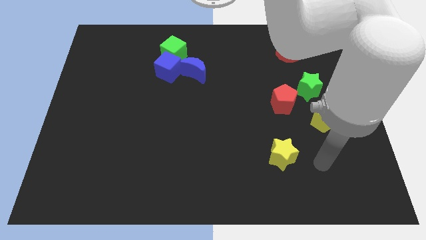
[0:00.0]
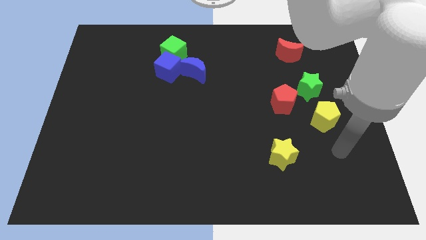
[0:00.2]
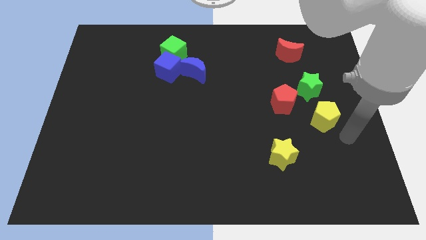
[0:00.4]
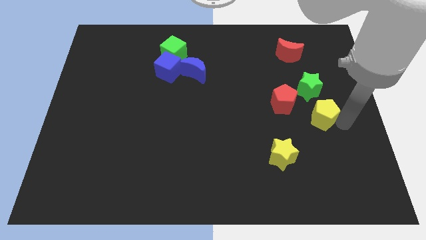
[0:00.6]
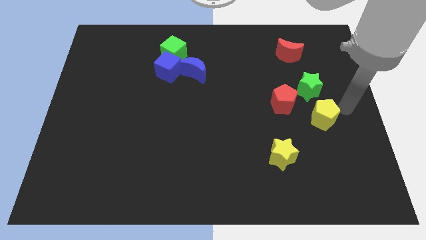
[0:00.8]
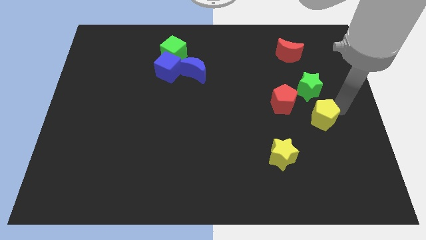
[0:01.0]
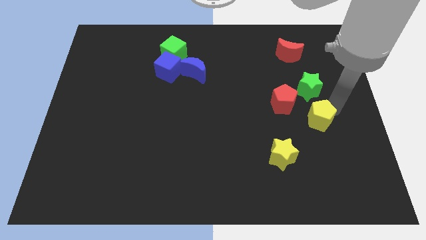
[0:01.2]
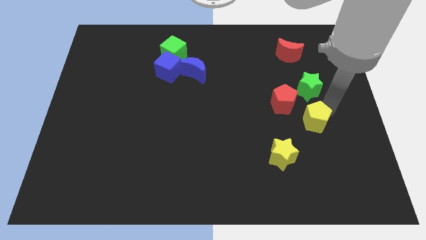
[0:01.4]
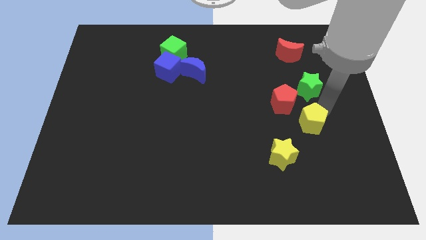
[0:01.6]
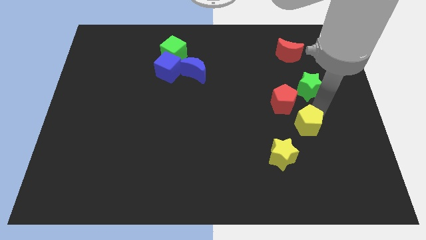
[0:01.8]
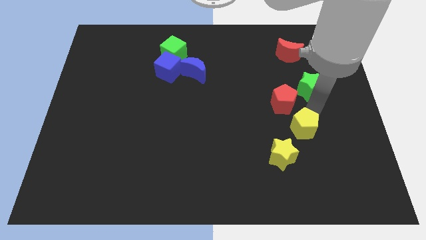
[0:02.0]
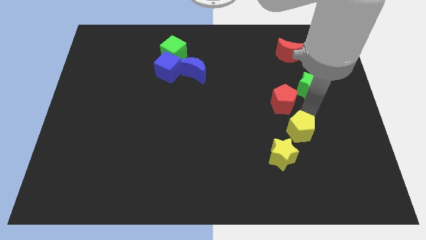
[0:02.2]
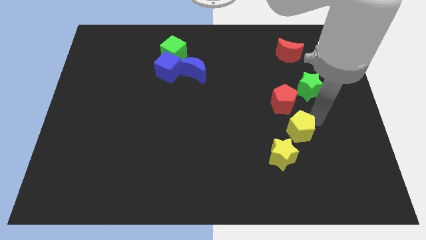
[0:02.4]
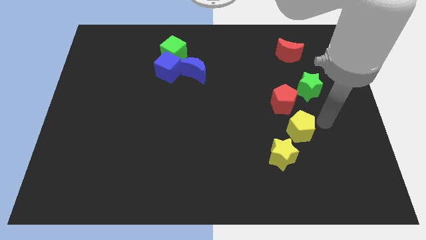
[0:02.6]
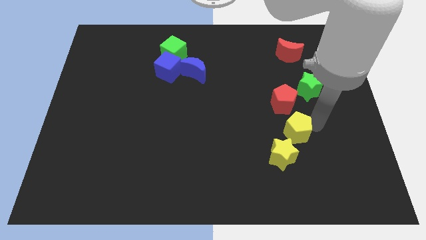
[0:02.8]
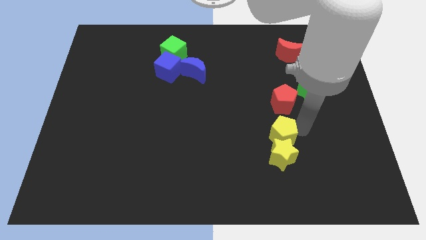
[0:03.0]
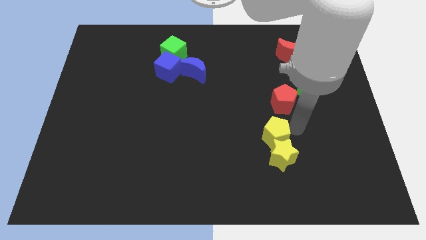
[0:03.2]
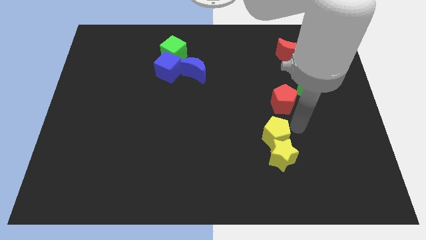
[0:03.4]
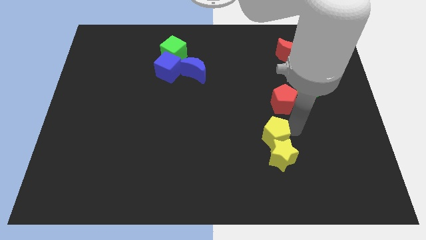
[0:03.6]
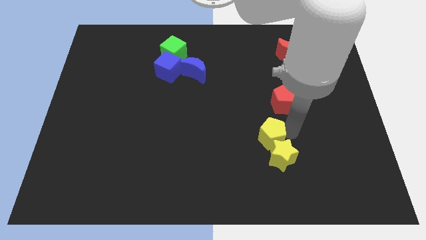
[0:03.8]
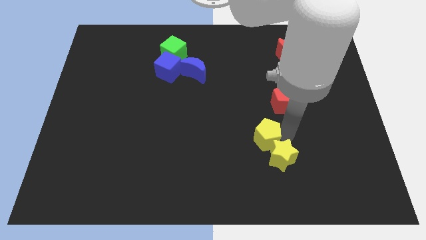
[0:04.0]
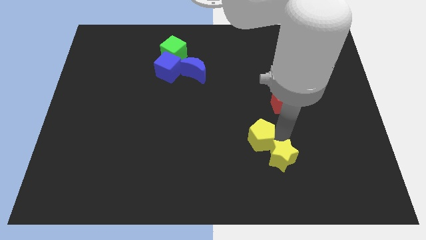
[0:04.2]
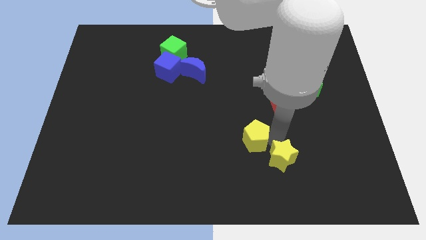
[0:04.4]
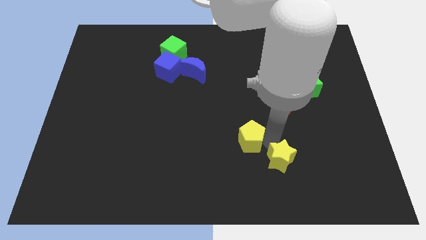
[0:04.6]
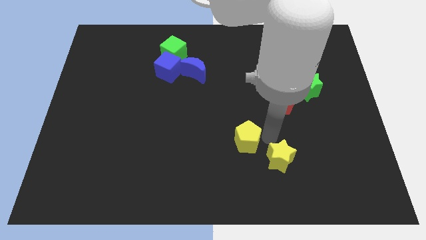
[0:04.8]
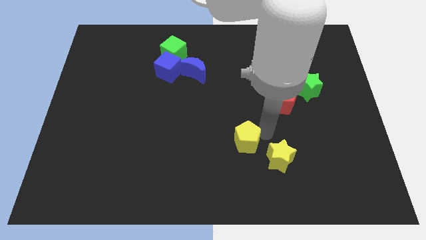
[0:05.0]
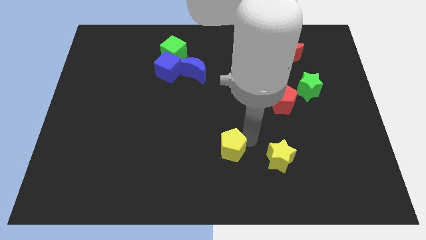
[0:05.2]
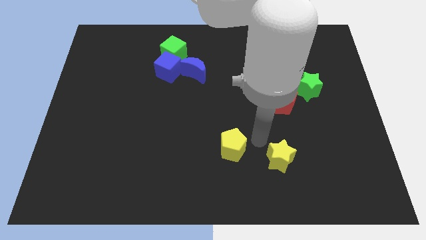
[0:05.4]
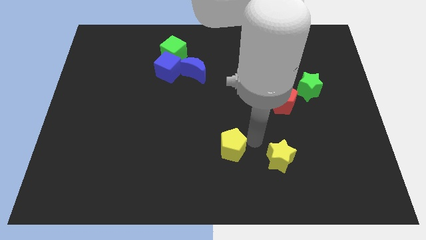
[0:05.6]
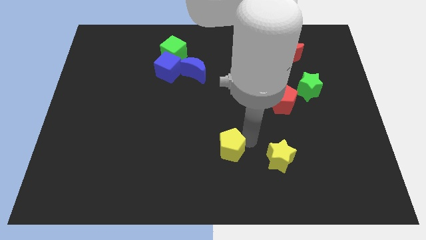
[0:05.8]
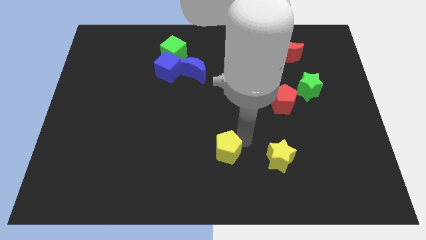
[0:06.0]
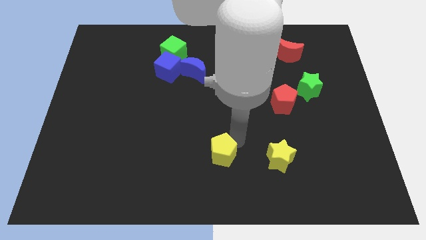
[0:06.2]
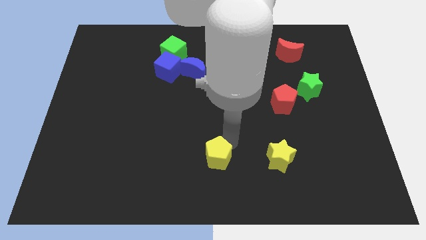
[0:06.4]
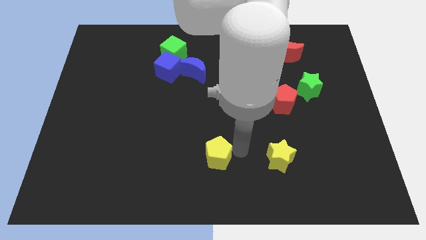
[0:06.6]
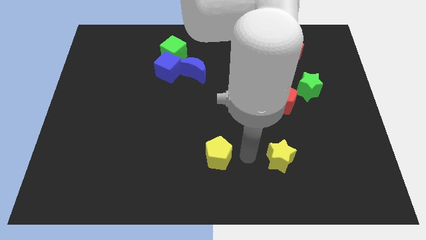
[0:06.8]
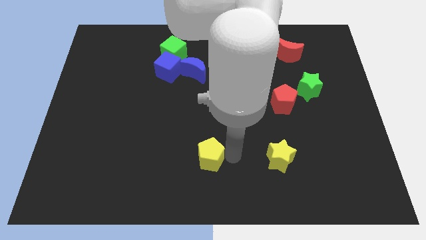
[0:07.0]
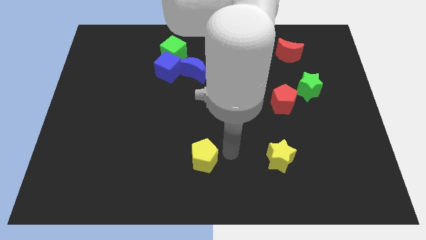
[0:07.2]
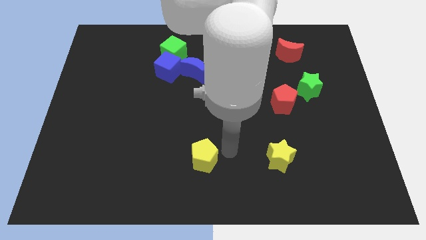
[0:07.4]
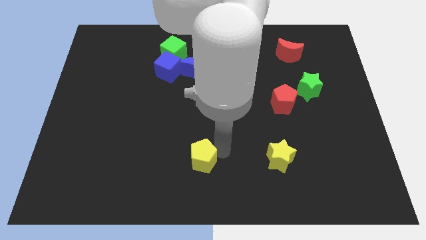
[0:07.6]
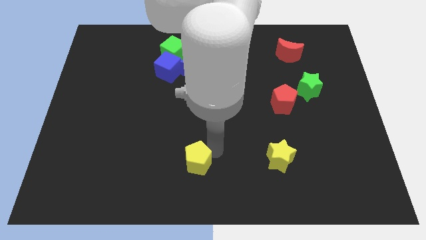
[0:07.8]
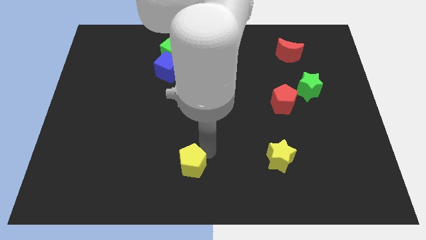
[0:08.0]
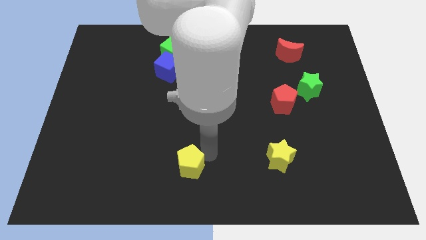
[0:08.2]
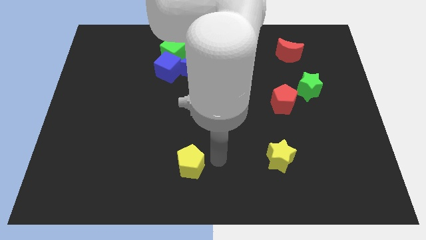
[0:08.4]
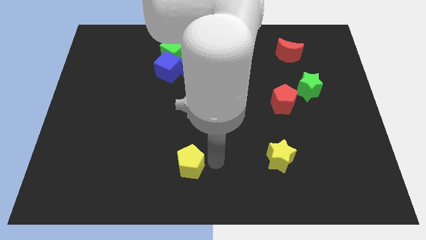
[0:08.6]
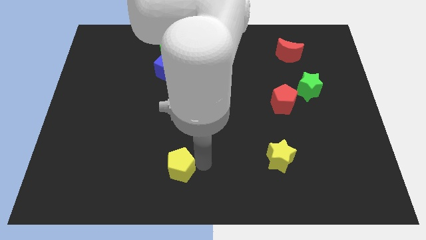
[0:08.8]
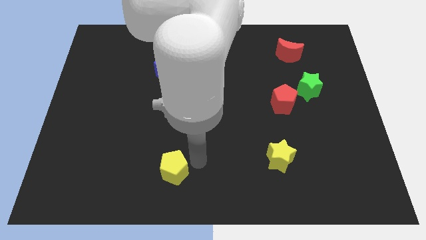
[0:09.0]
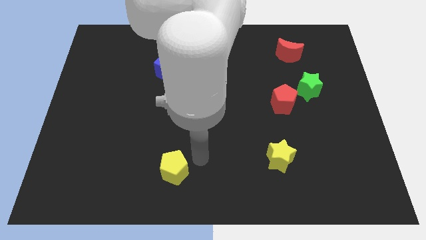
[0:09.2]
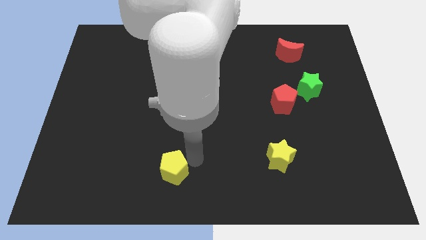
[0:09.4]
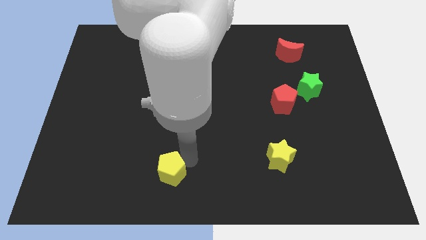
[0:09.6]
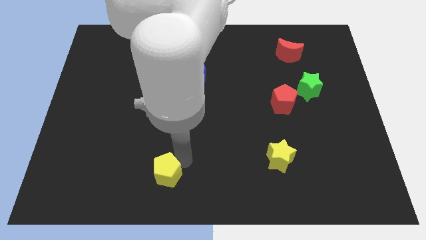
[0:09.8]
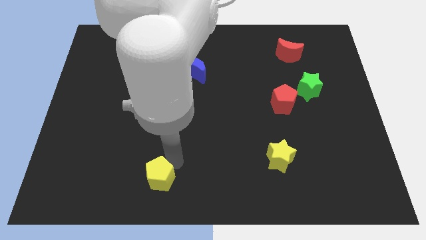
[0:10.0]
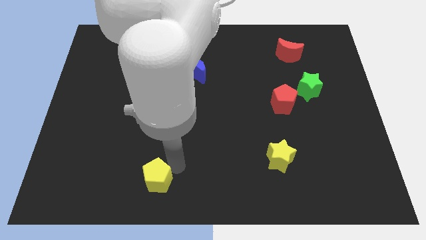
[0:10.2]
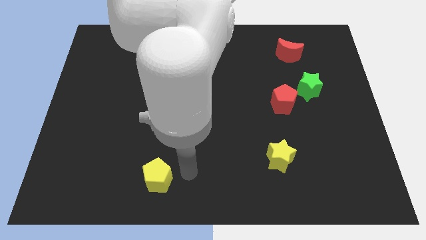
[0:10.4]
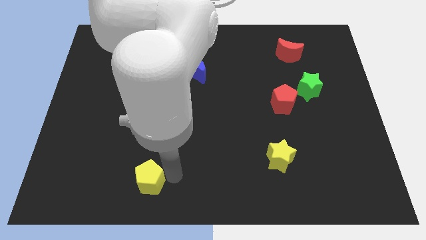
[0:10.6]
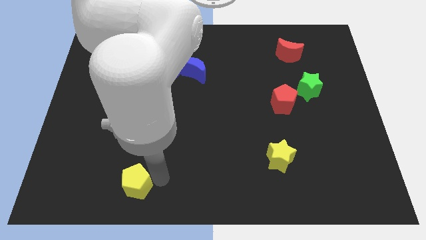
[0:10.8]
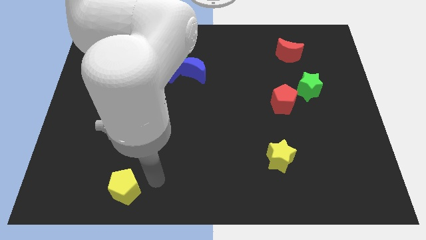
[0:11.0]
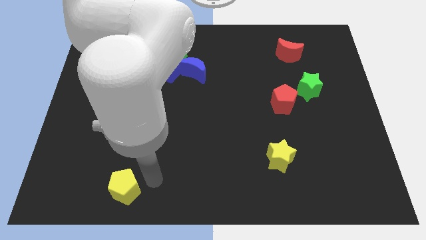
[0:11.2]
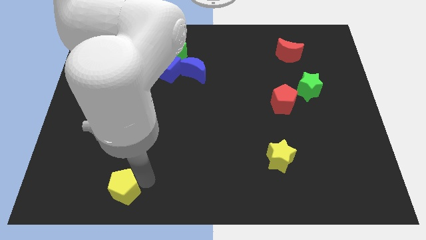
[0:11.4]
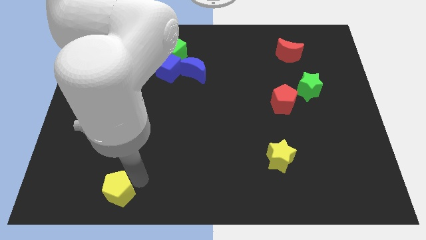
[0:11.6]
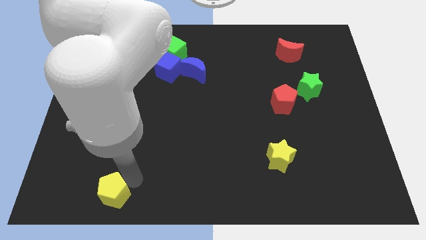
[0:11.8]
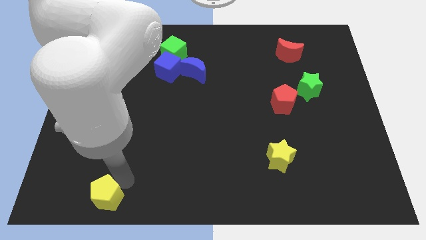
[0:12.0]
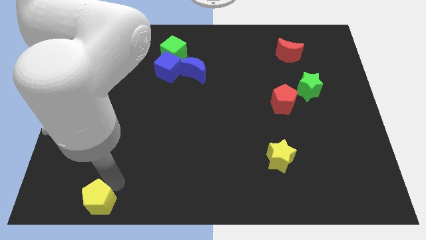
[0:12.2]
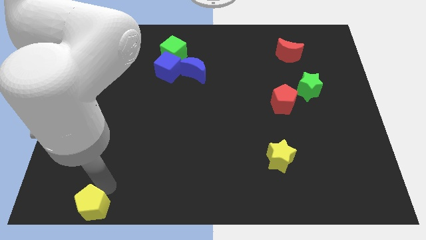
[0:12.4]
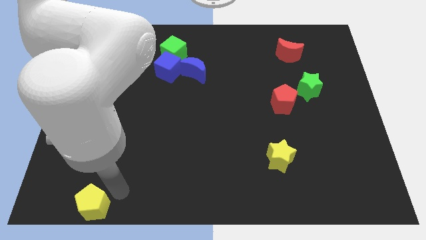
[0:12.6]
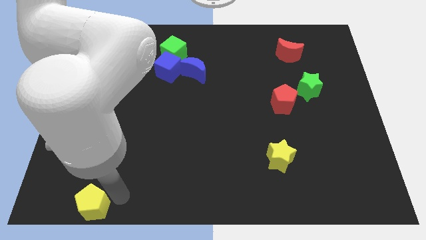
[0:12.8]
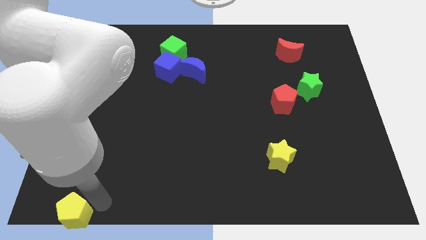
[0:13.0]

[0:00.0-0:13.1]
put the yellow pentagon to the lower left corner
